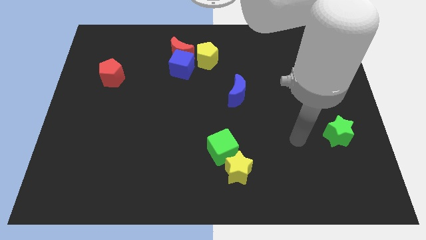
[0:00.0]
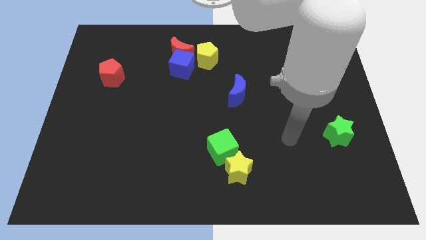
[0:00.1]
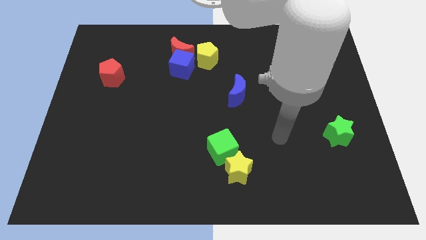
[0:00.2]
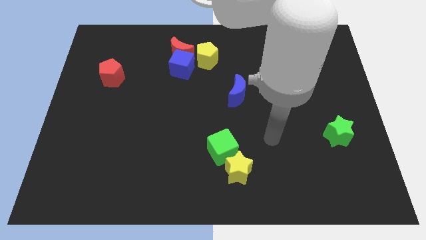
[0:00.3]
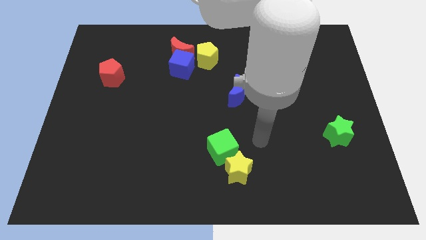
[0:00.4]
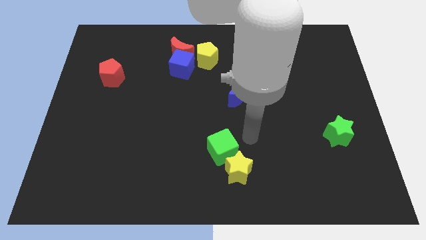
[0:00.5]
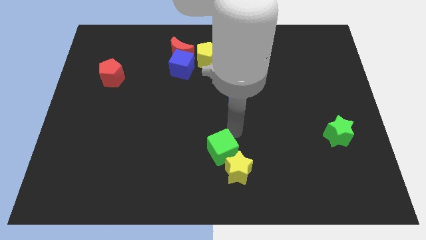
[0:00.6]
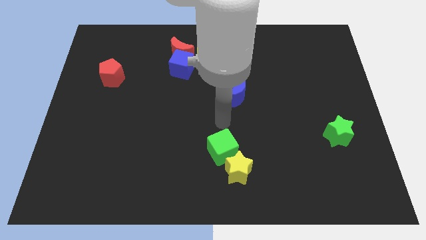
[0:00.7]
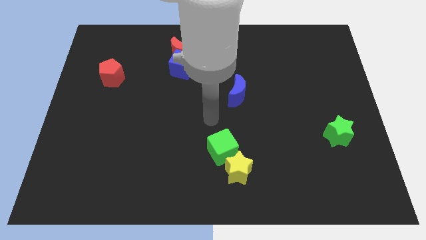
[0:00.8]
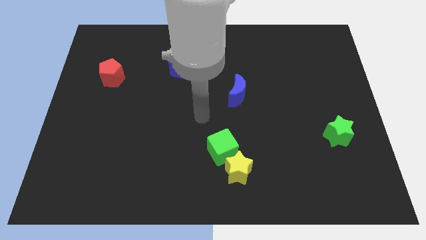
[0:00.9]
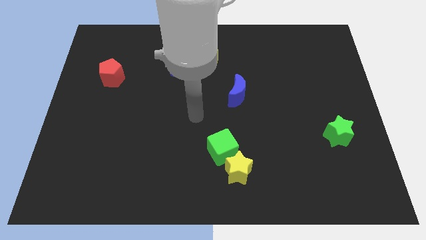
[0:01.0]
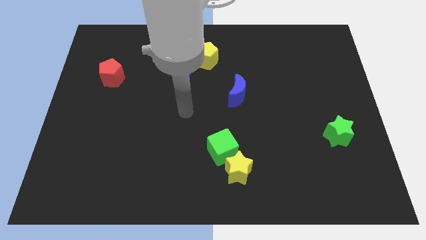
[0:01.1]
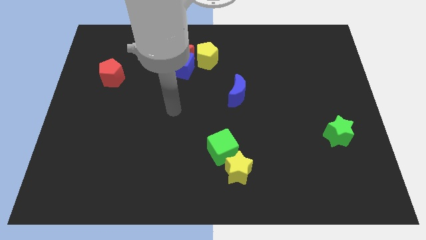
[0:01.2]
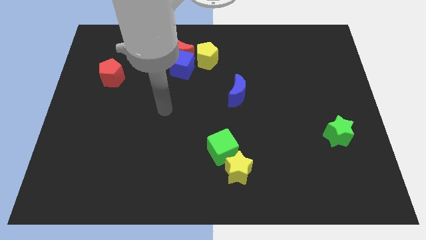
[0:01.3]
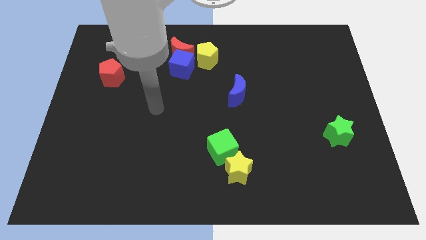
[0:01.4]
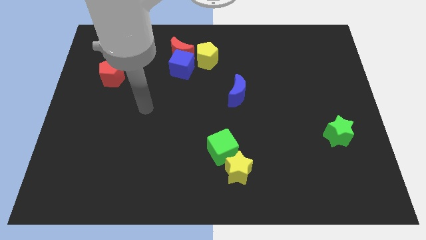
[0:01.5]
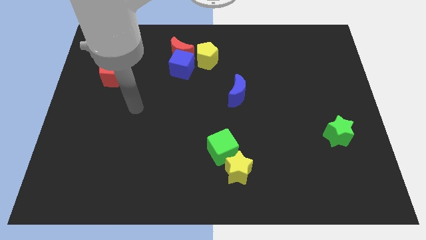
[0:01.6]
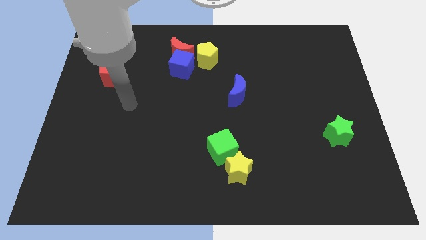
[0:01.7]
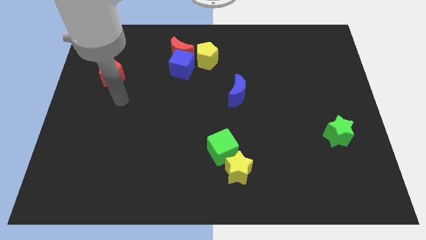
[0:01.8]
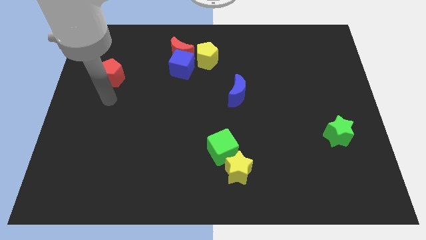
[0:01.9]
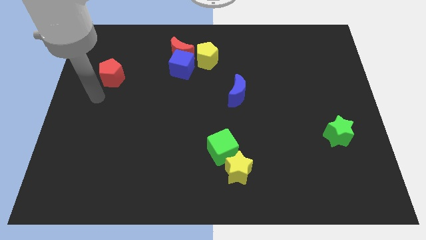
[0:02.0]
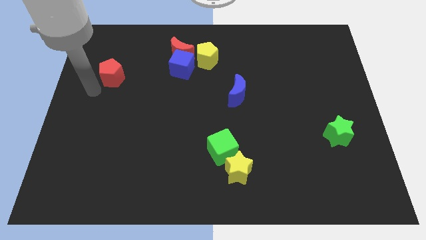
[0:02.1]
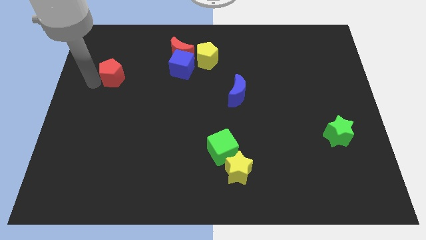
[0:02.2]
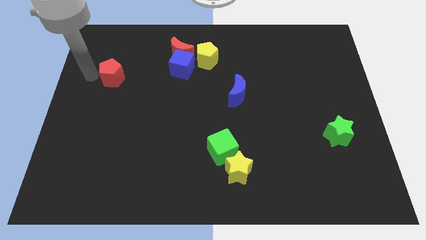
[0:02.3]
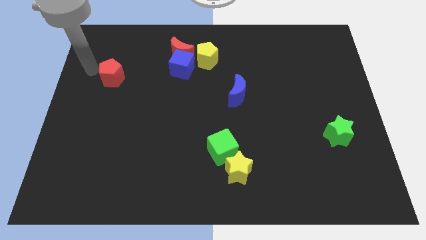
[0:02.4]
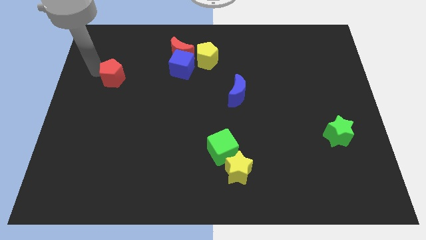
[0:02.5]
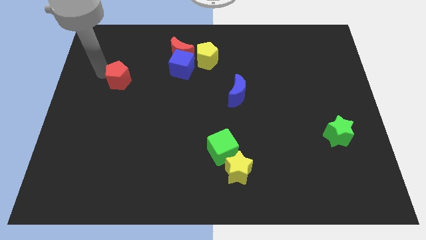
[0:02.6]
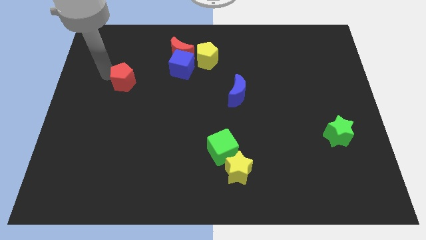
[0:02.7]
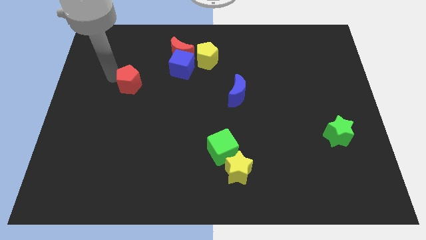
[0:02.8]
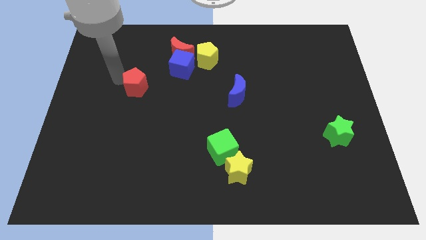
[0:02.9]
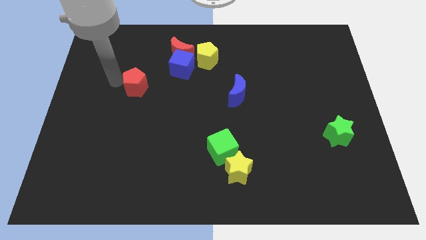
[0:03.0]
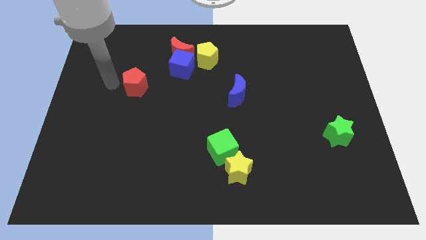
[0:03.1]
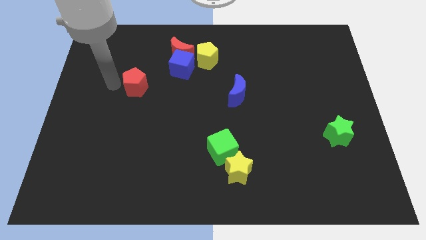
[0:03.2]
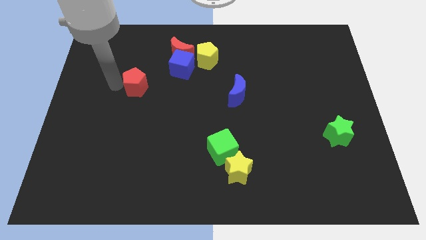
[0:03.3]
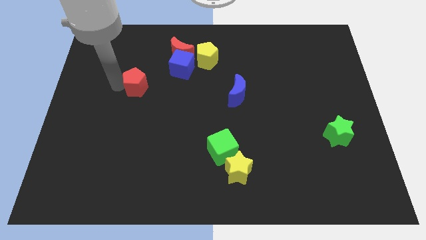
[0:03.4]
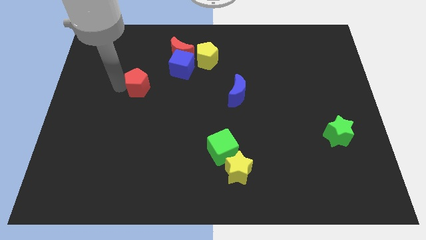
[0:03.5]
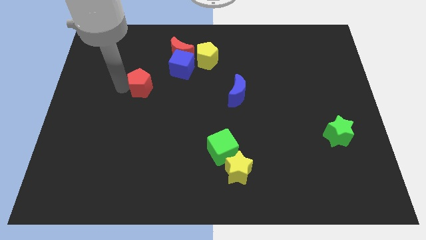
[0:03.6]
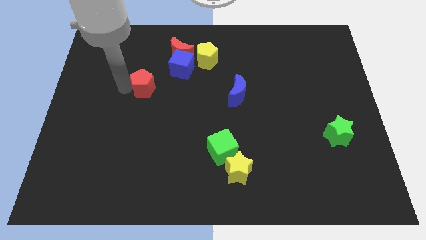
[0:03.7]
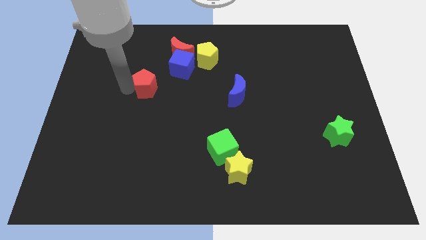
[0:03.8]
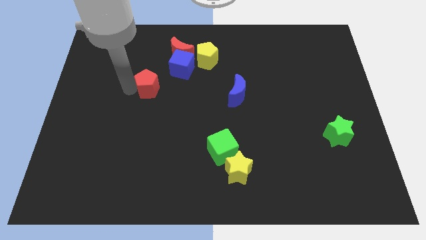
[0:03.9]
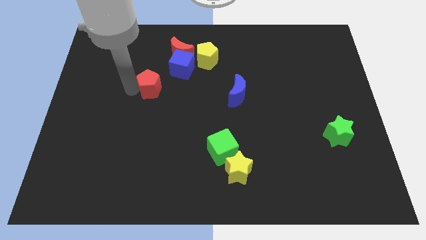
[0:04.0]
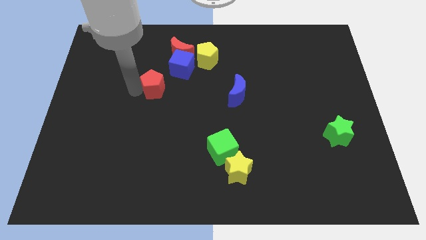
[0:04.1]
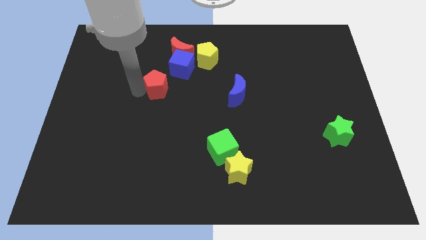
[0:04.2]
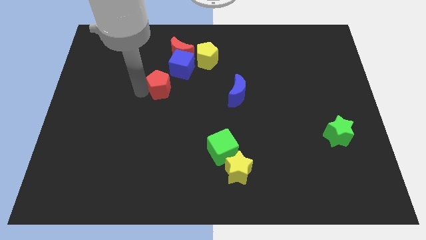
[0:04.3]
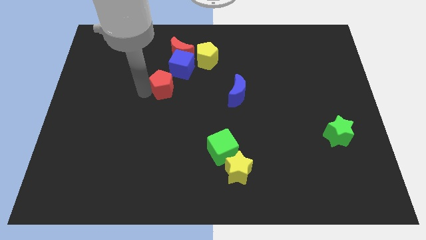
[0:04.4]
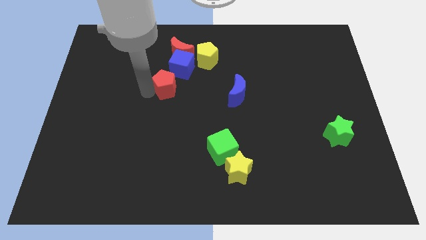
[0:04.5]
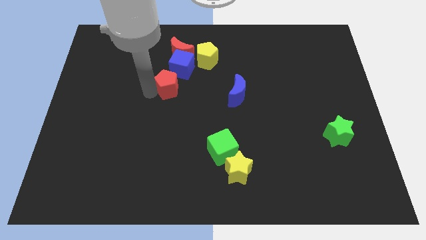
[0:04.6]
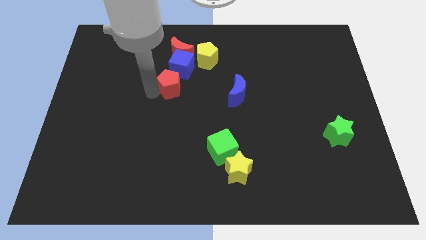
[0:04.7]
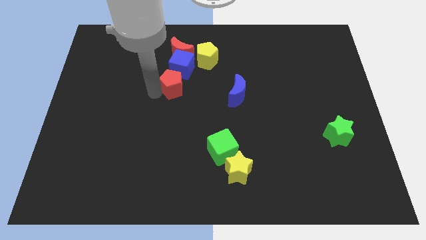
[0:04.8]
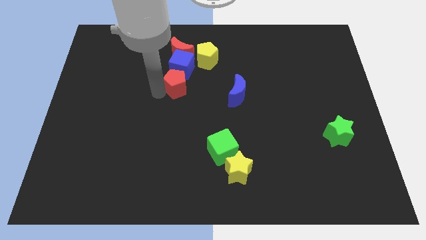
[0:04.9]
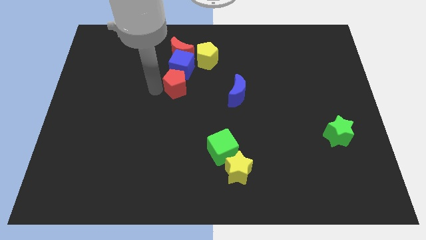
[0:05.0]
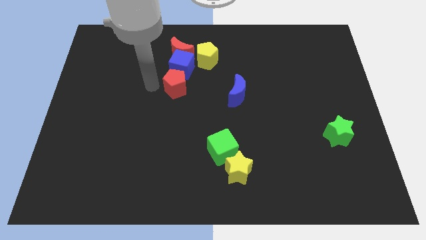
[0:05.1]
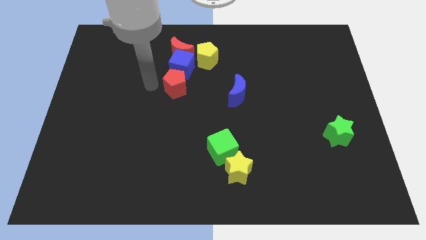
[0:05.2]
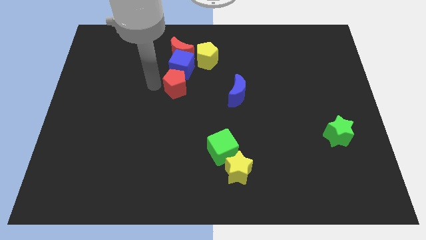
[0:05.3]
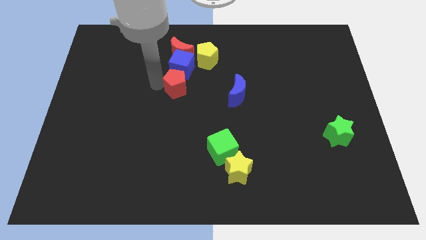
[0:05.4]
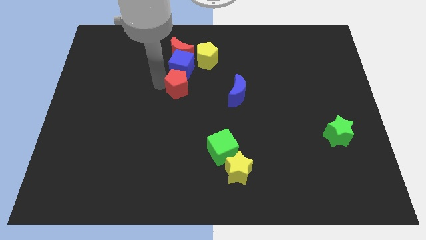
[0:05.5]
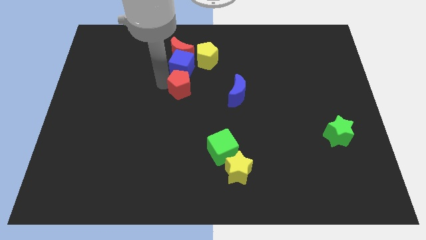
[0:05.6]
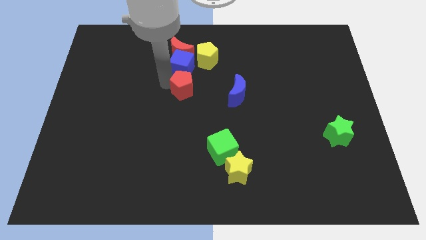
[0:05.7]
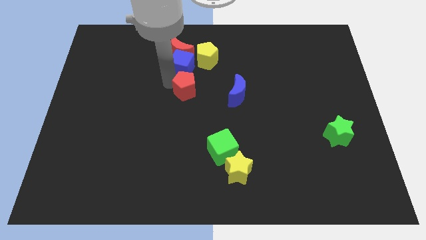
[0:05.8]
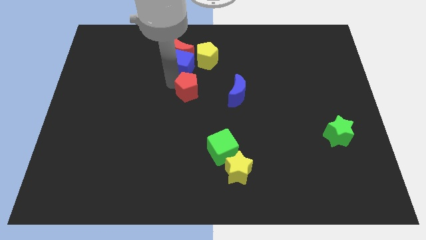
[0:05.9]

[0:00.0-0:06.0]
slide the red pentagon below the yellow pentagon

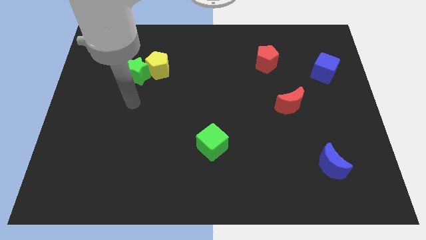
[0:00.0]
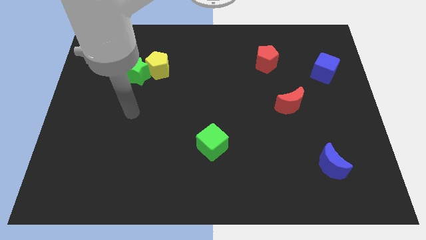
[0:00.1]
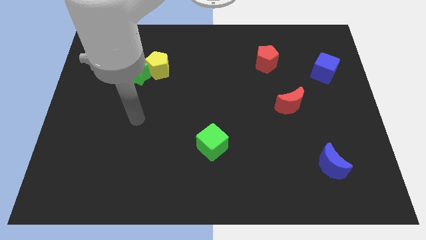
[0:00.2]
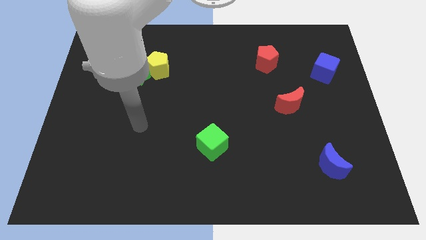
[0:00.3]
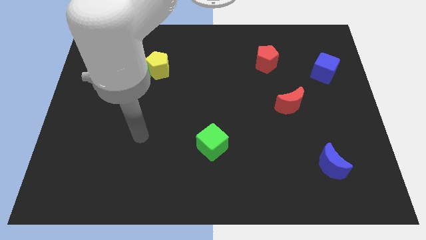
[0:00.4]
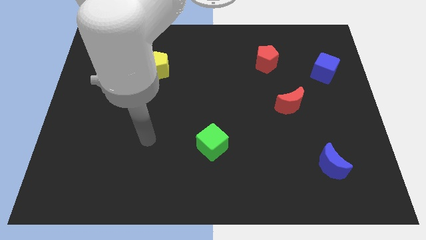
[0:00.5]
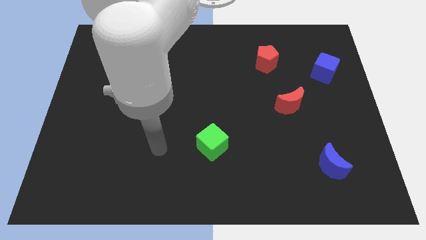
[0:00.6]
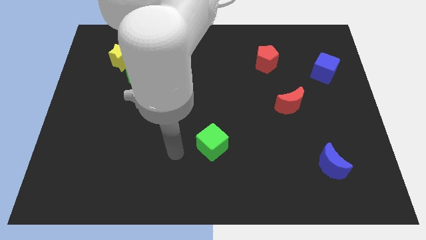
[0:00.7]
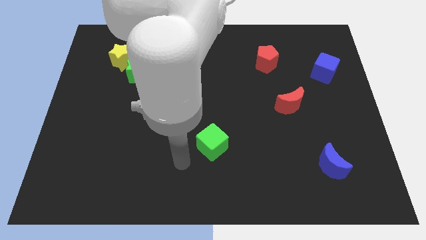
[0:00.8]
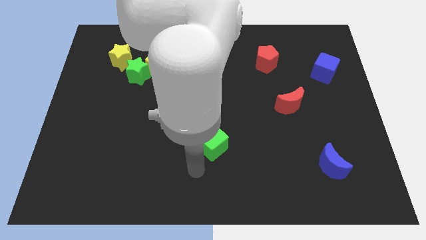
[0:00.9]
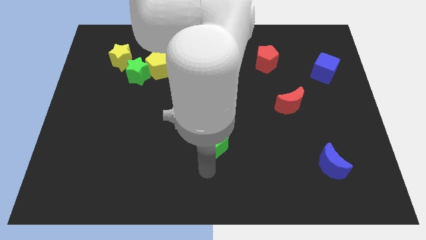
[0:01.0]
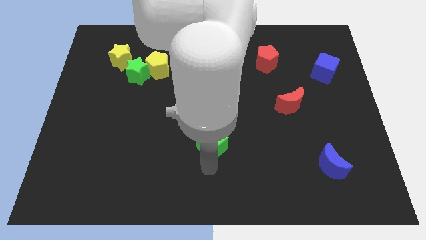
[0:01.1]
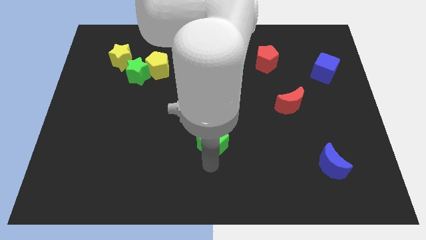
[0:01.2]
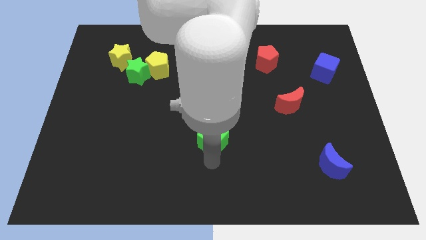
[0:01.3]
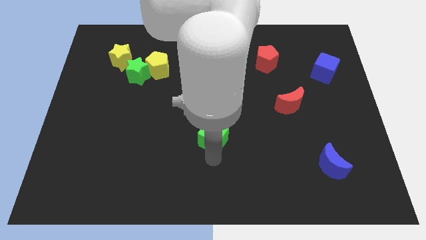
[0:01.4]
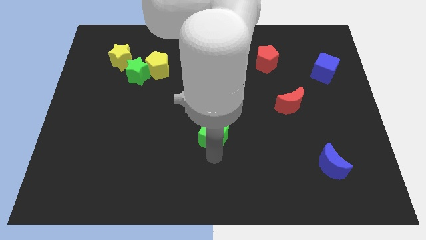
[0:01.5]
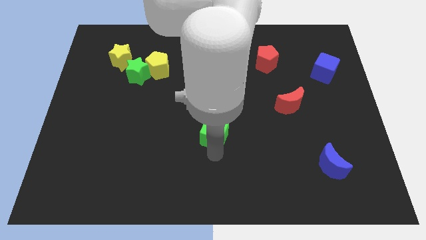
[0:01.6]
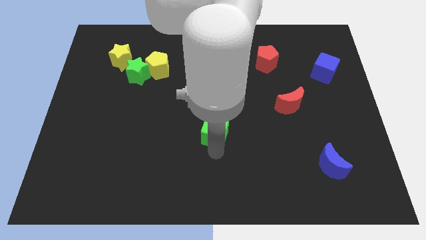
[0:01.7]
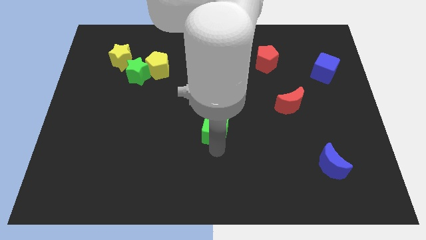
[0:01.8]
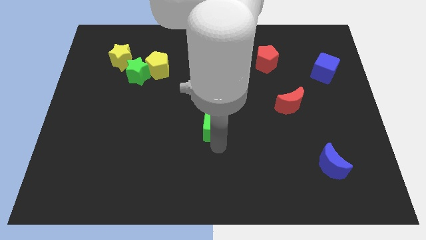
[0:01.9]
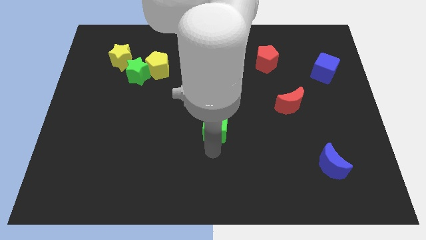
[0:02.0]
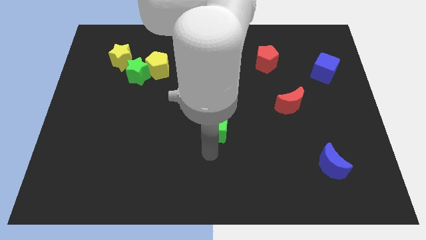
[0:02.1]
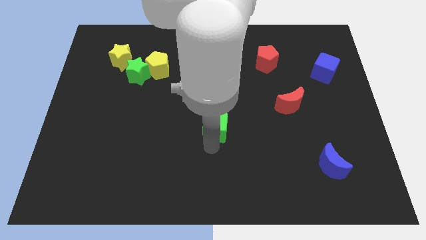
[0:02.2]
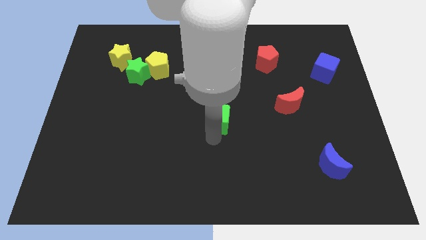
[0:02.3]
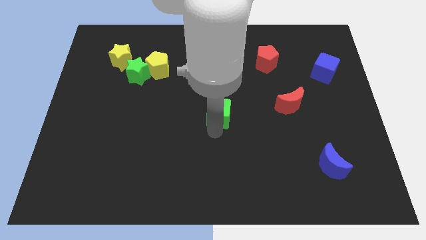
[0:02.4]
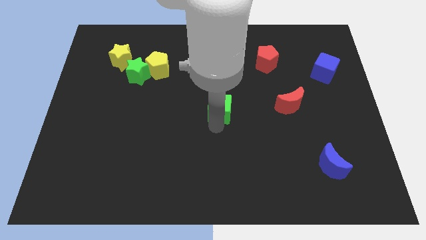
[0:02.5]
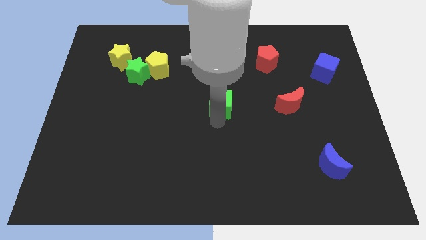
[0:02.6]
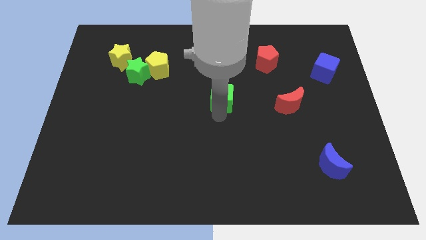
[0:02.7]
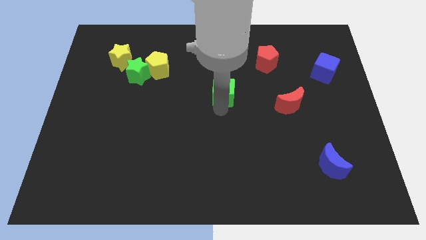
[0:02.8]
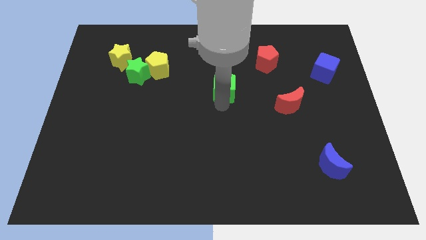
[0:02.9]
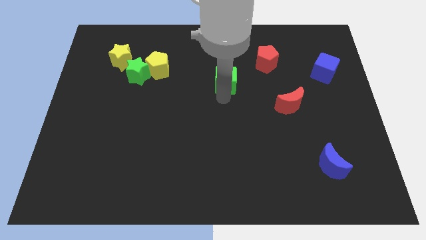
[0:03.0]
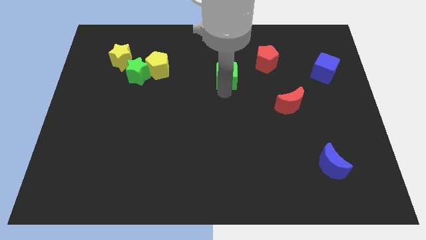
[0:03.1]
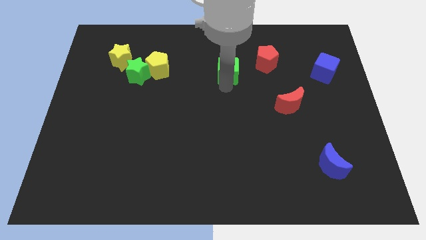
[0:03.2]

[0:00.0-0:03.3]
slide the green cube to the left of the red pentagon
